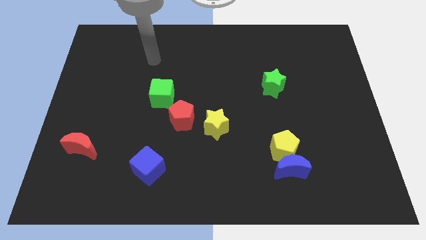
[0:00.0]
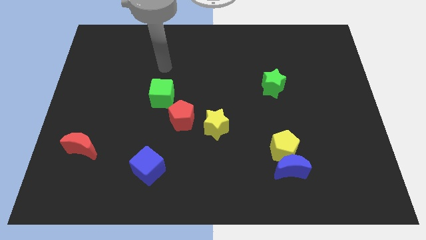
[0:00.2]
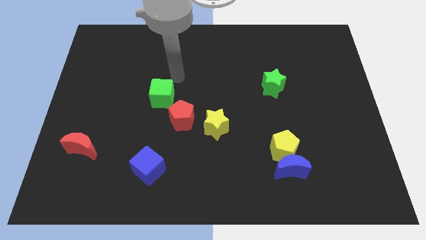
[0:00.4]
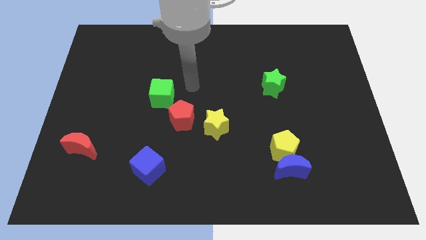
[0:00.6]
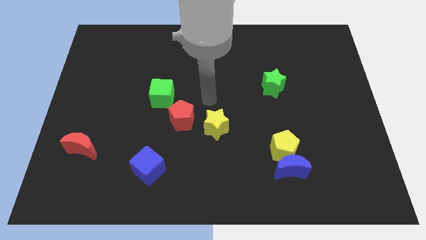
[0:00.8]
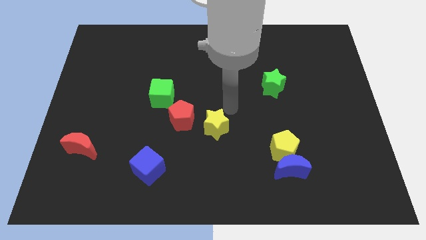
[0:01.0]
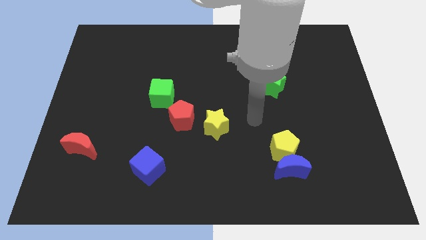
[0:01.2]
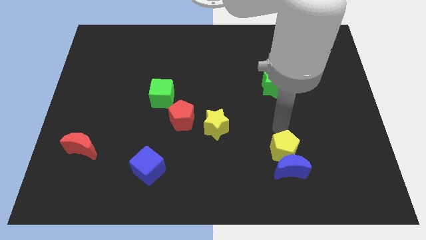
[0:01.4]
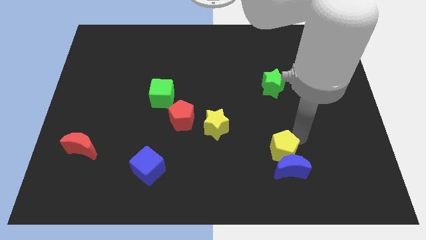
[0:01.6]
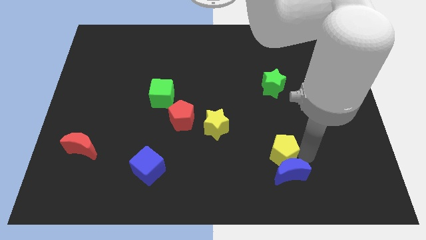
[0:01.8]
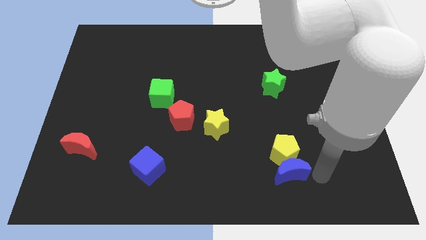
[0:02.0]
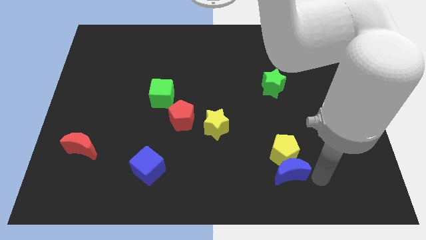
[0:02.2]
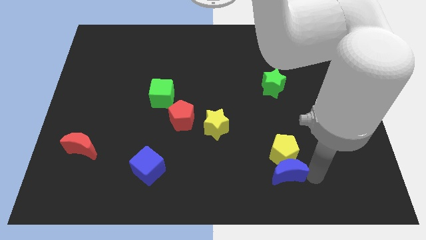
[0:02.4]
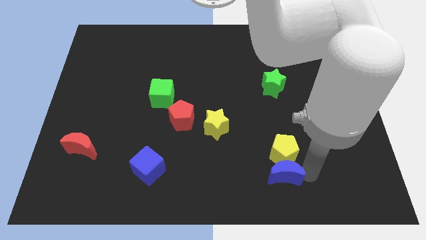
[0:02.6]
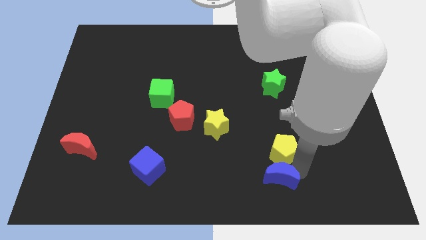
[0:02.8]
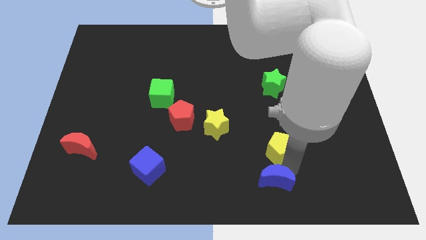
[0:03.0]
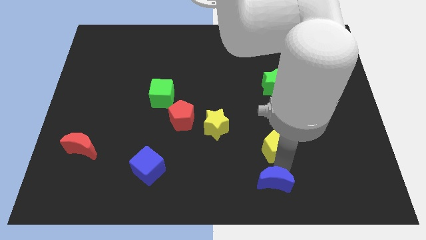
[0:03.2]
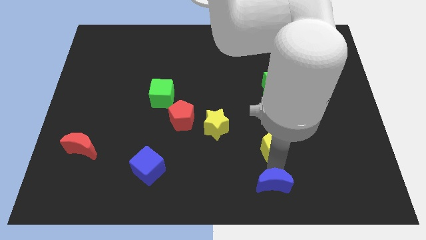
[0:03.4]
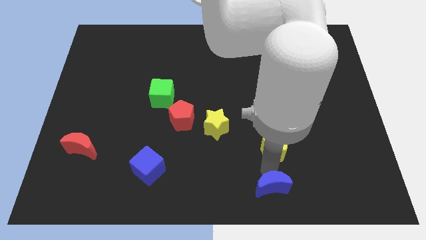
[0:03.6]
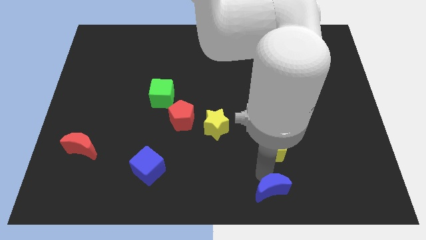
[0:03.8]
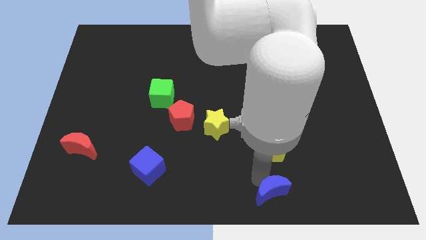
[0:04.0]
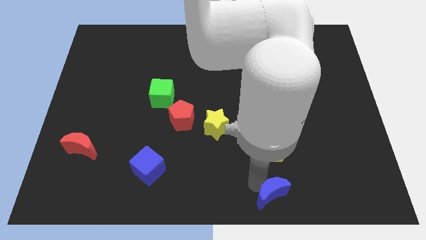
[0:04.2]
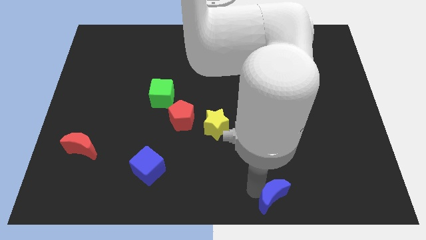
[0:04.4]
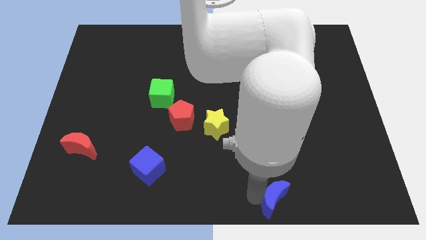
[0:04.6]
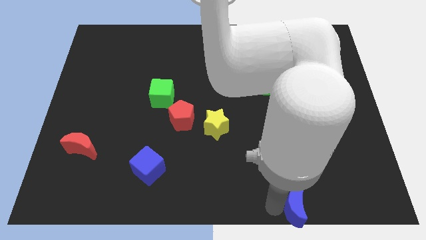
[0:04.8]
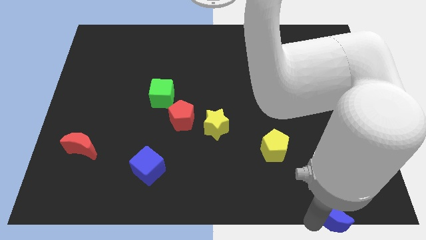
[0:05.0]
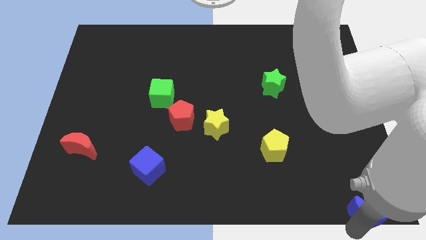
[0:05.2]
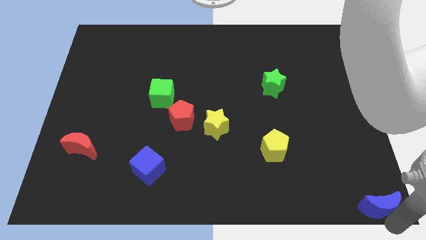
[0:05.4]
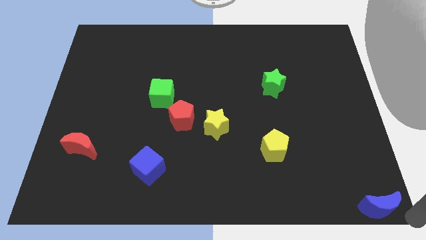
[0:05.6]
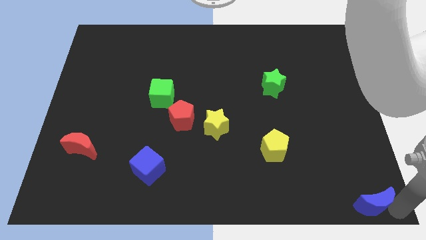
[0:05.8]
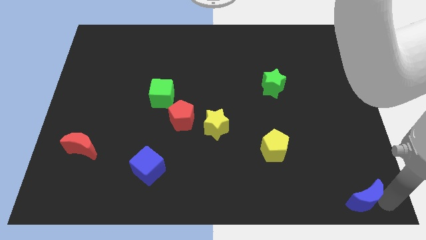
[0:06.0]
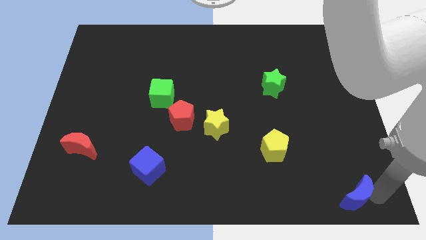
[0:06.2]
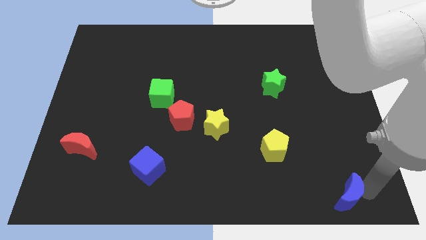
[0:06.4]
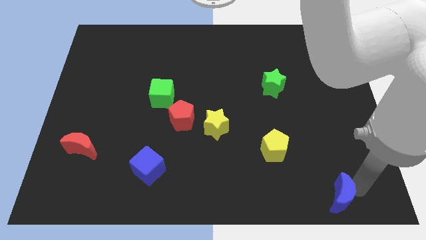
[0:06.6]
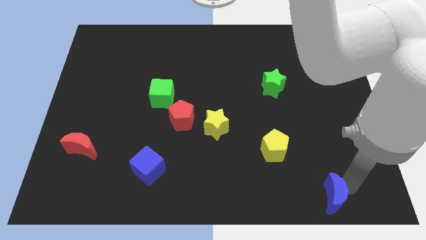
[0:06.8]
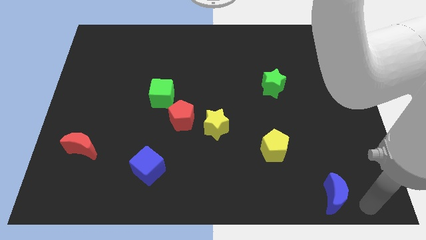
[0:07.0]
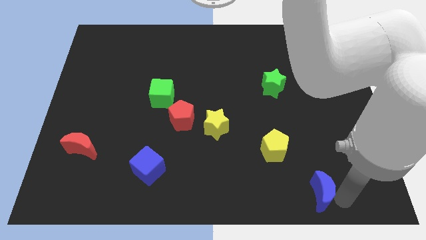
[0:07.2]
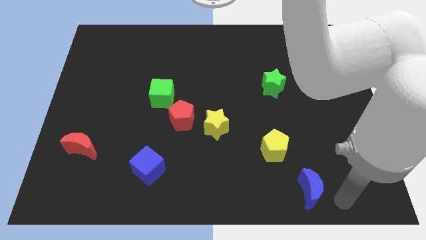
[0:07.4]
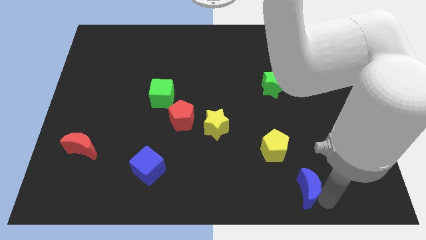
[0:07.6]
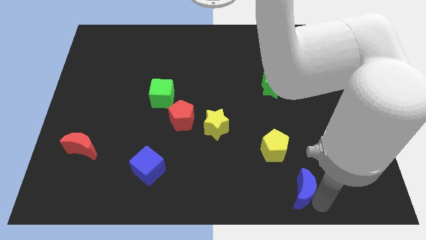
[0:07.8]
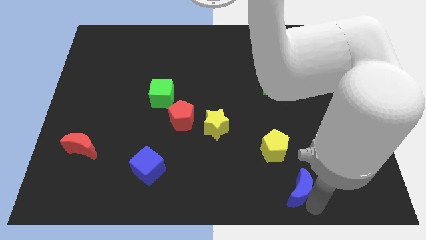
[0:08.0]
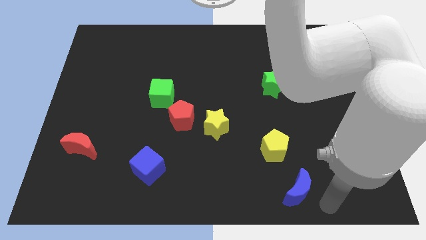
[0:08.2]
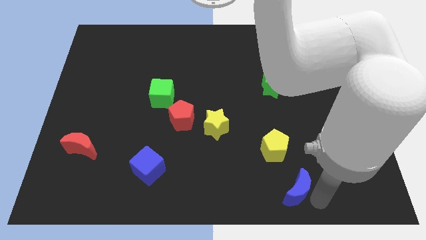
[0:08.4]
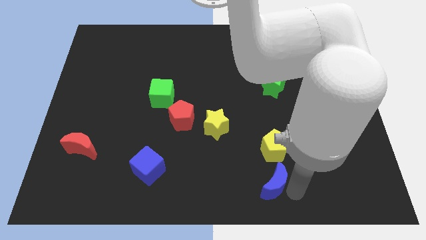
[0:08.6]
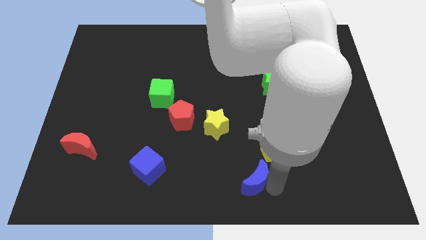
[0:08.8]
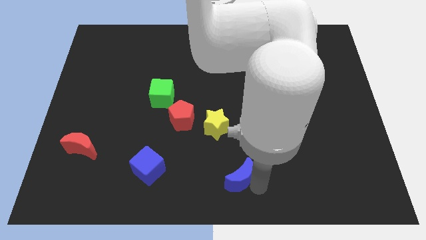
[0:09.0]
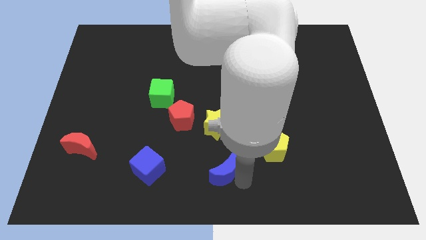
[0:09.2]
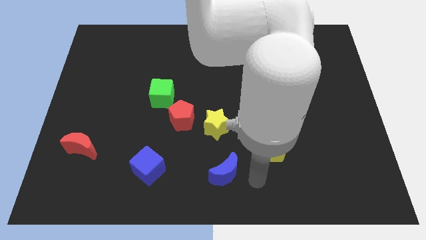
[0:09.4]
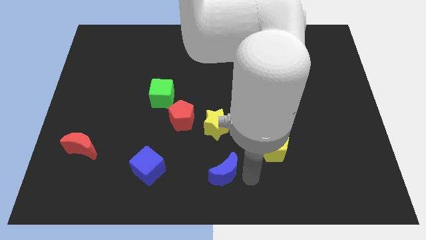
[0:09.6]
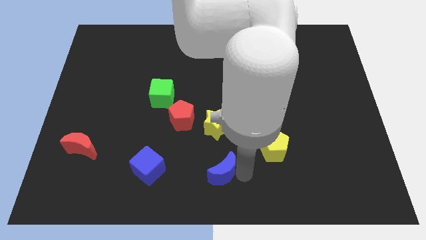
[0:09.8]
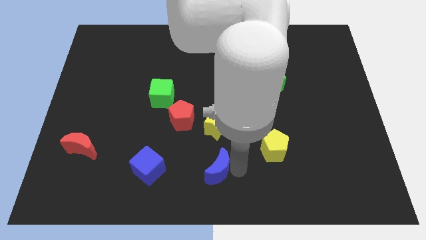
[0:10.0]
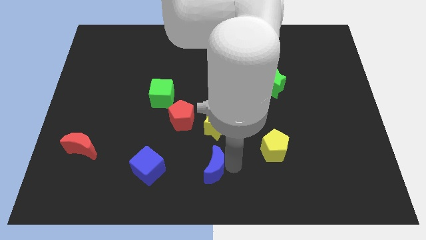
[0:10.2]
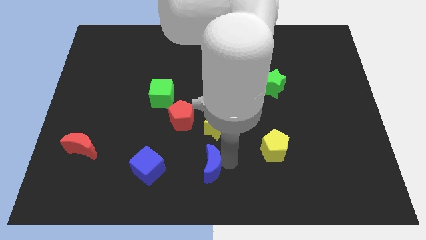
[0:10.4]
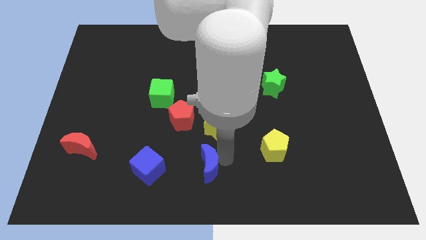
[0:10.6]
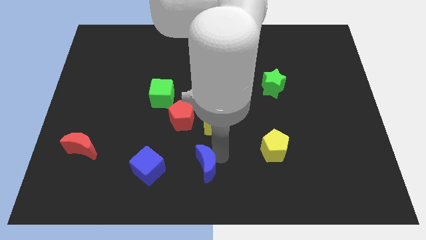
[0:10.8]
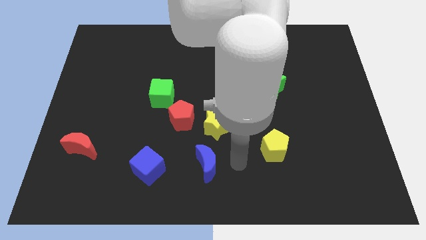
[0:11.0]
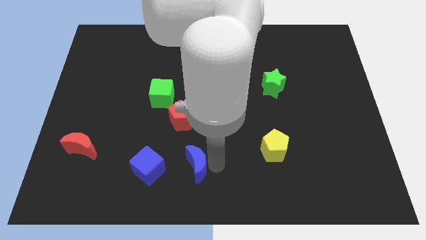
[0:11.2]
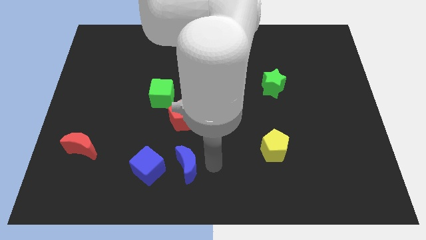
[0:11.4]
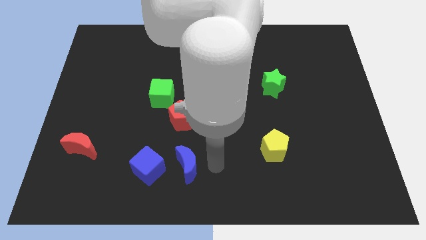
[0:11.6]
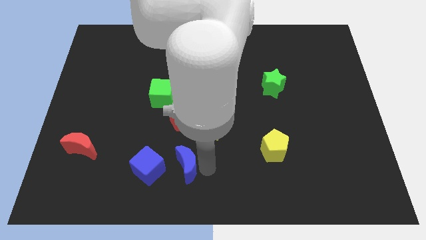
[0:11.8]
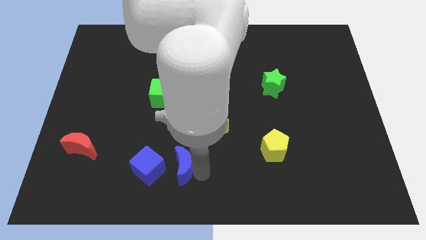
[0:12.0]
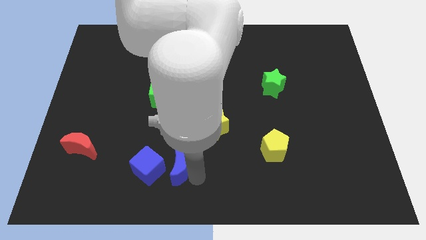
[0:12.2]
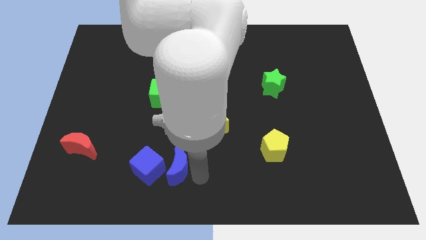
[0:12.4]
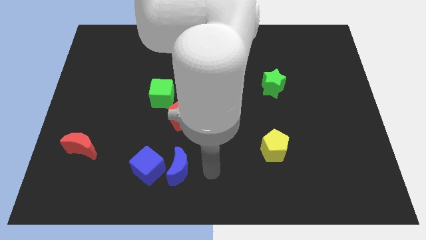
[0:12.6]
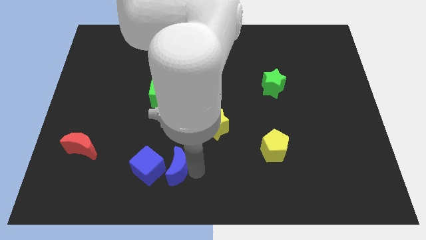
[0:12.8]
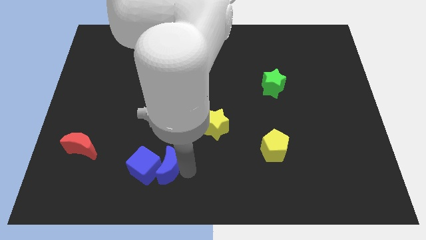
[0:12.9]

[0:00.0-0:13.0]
move the blue moon to the blue cube
